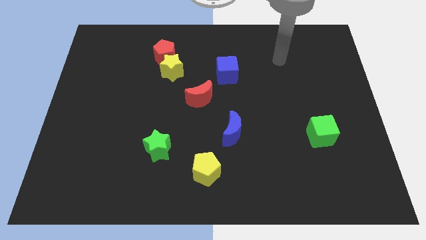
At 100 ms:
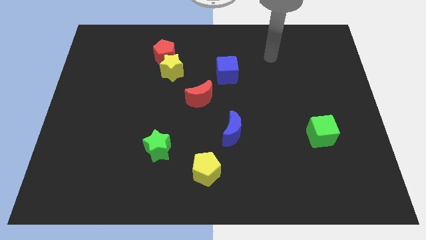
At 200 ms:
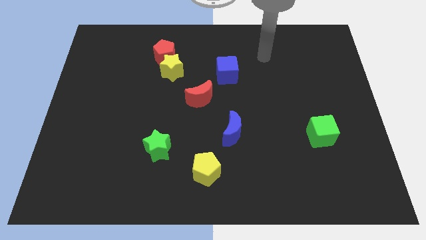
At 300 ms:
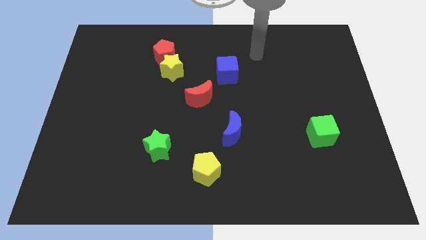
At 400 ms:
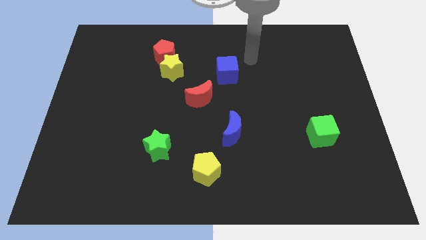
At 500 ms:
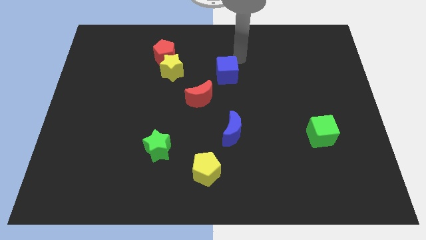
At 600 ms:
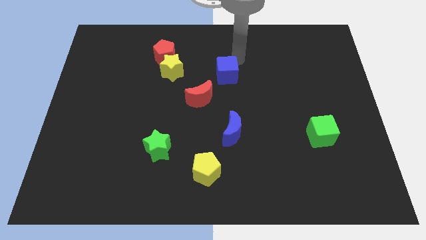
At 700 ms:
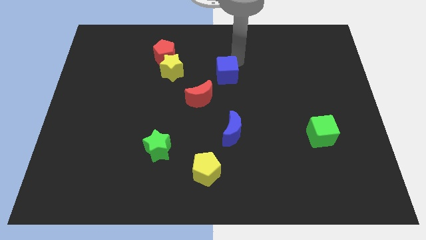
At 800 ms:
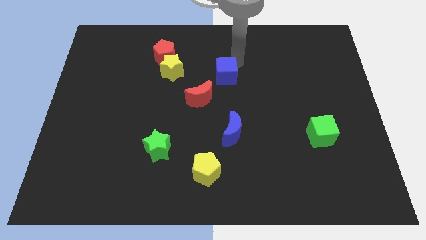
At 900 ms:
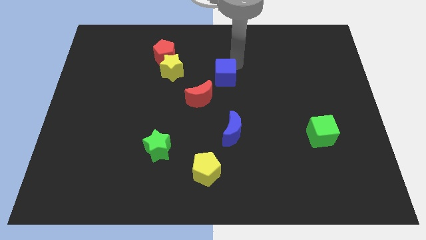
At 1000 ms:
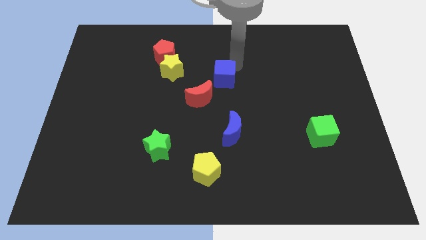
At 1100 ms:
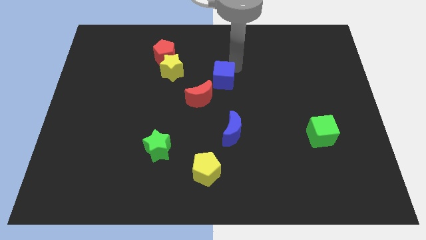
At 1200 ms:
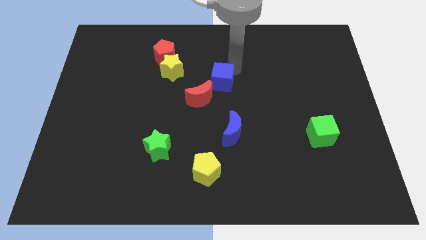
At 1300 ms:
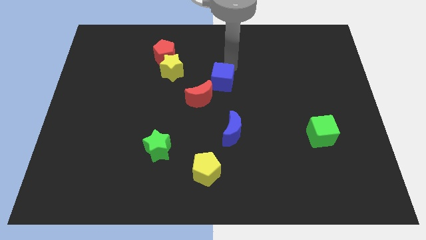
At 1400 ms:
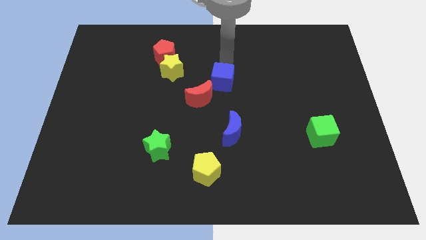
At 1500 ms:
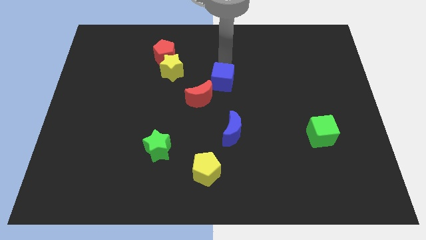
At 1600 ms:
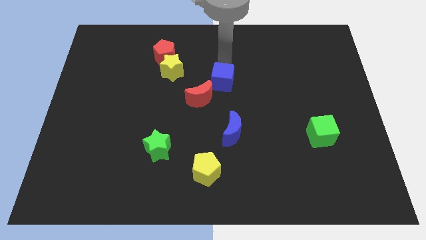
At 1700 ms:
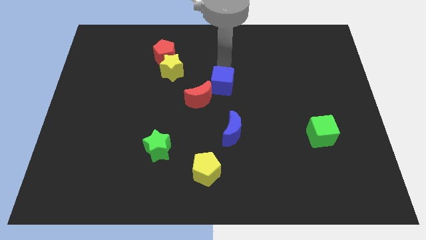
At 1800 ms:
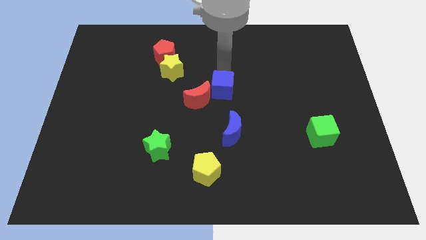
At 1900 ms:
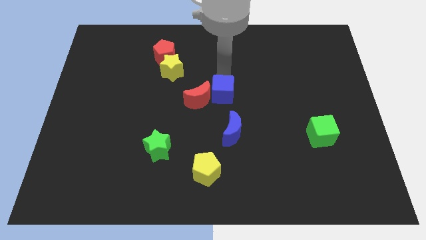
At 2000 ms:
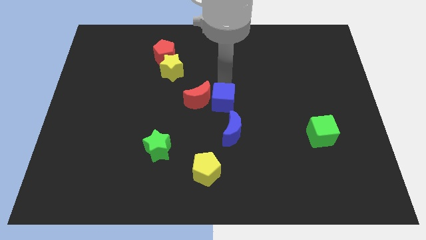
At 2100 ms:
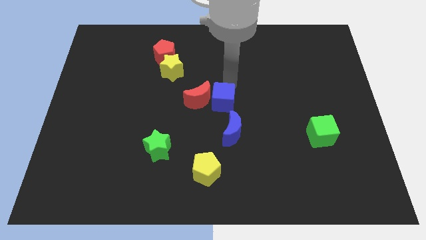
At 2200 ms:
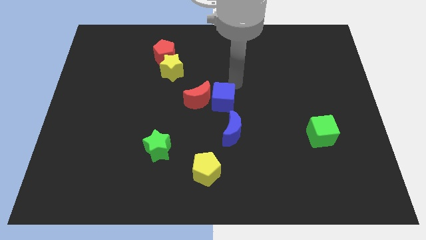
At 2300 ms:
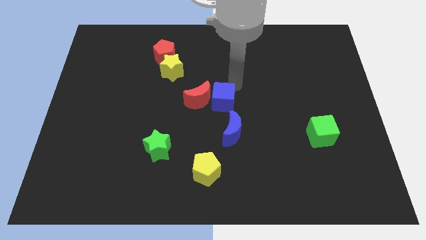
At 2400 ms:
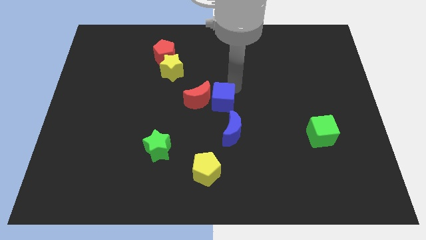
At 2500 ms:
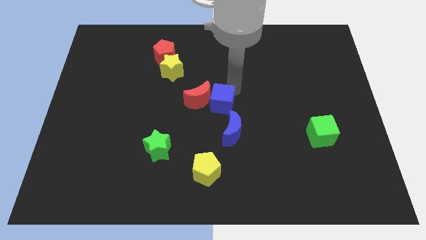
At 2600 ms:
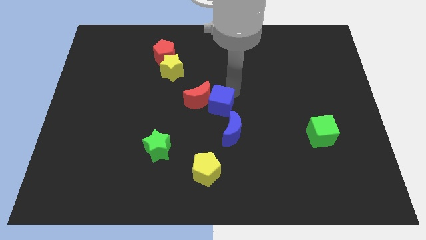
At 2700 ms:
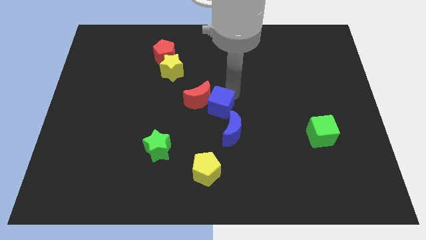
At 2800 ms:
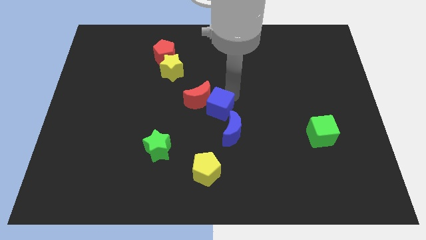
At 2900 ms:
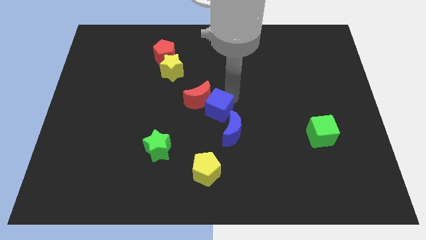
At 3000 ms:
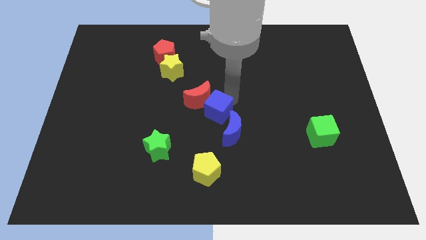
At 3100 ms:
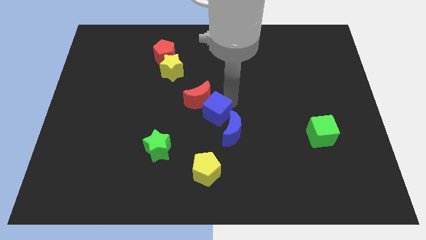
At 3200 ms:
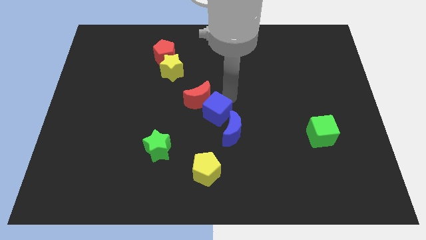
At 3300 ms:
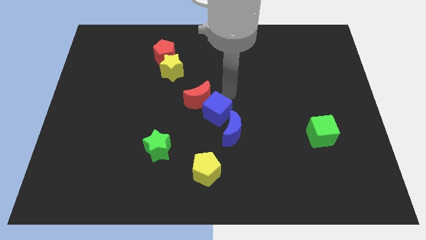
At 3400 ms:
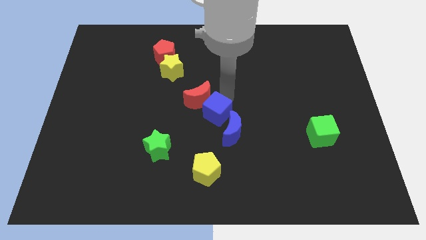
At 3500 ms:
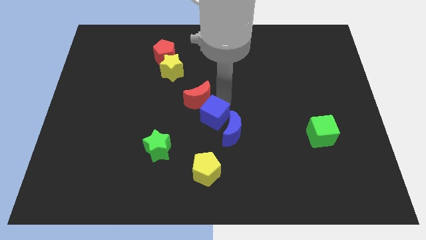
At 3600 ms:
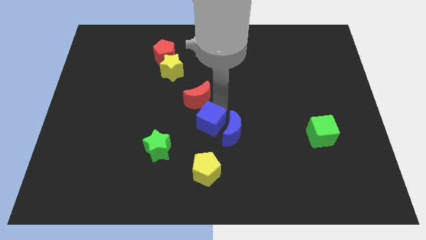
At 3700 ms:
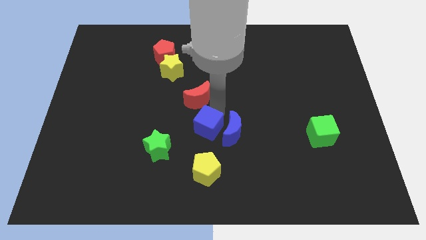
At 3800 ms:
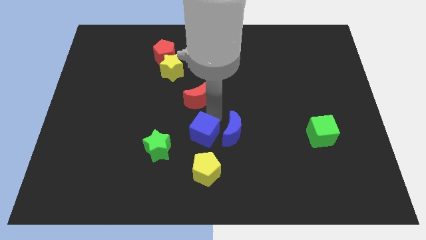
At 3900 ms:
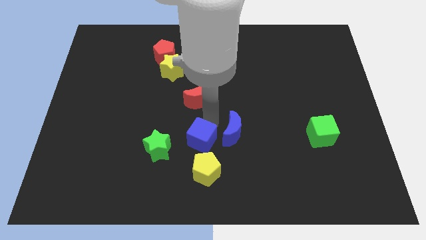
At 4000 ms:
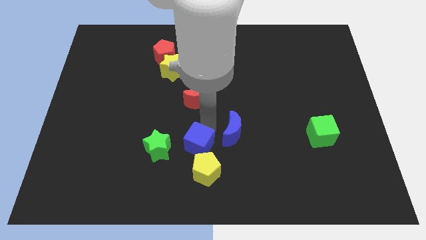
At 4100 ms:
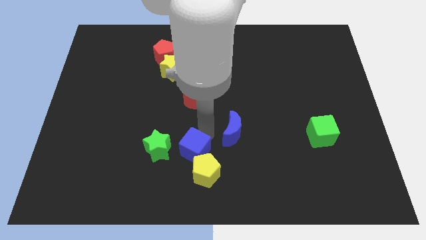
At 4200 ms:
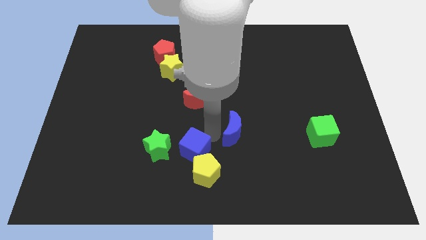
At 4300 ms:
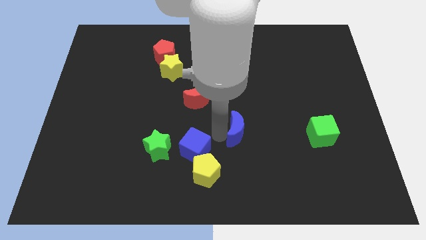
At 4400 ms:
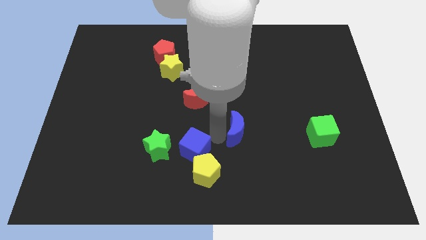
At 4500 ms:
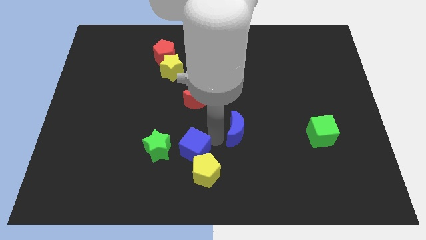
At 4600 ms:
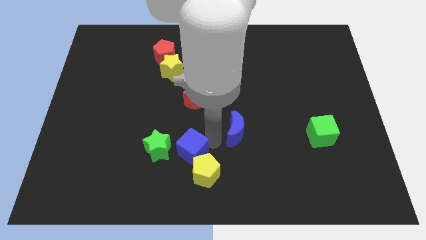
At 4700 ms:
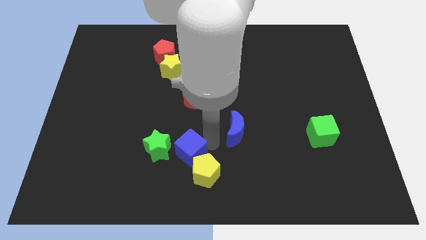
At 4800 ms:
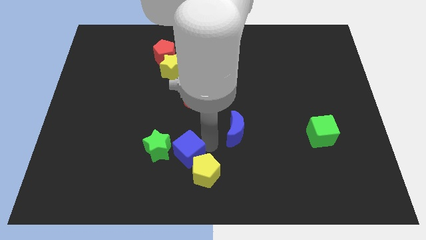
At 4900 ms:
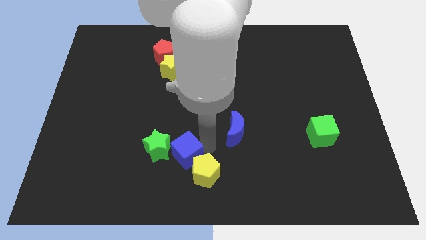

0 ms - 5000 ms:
put the blue cube just left of the yellow pentagon
